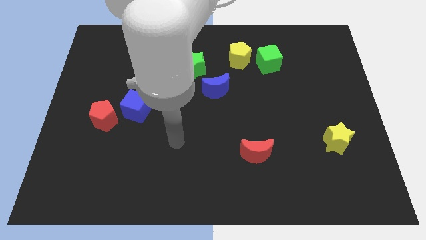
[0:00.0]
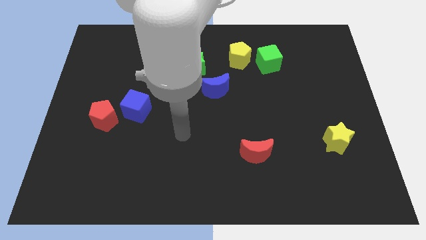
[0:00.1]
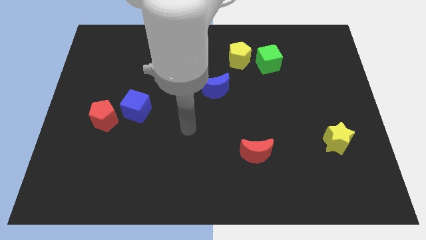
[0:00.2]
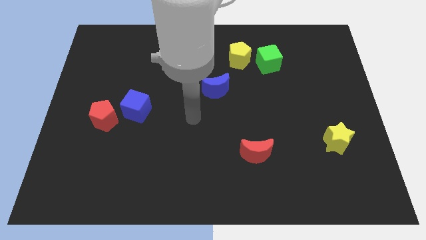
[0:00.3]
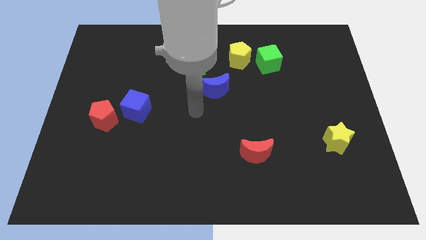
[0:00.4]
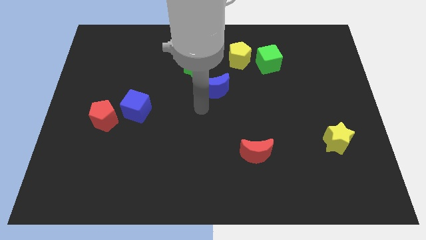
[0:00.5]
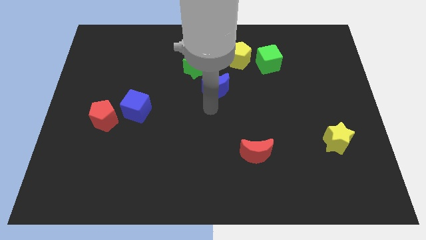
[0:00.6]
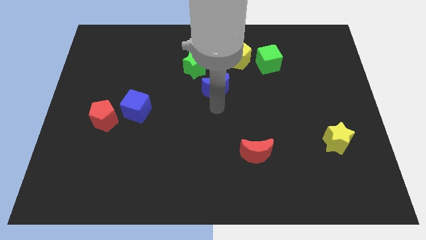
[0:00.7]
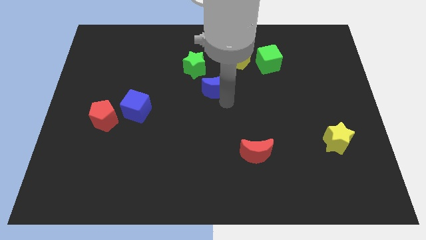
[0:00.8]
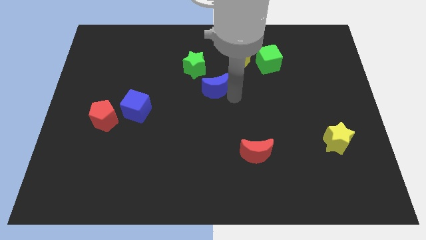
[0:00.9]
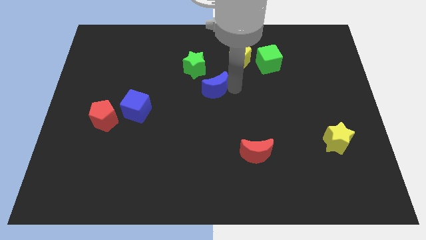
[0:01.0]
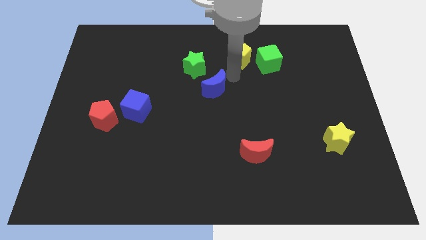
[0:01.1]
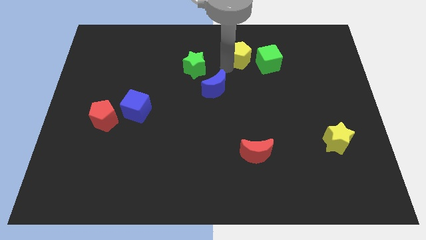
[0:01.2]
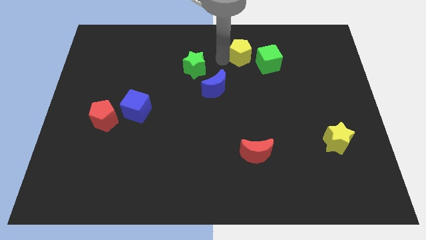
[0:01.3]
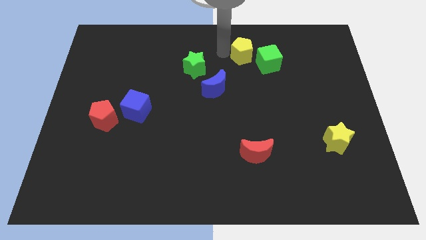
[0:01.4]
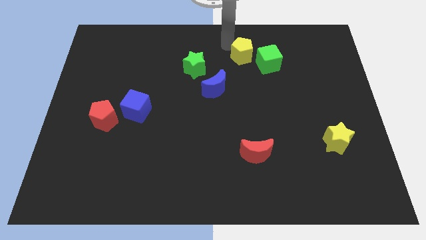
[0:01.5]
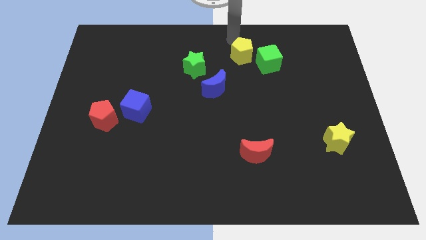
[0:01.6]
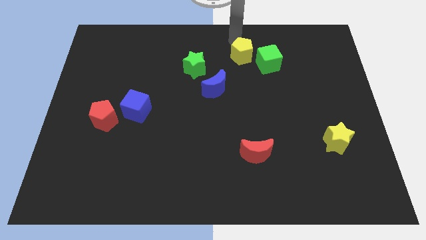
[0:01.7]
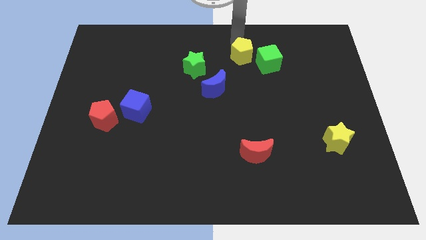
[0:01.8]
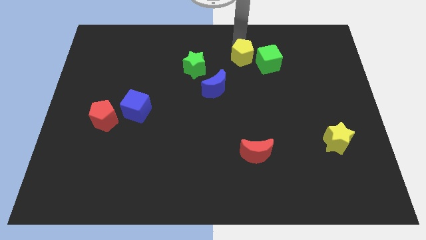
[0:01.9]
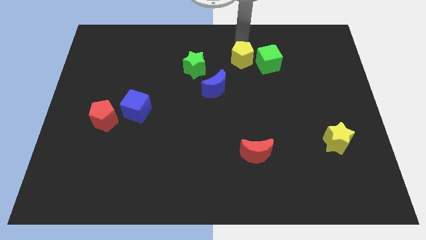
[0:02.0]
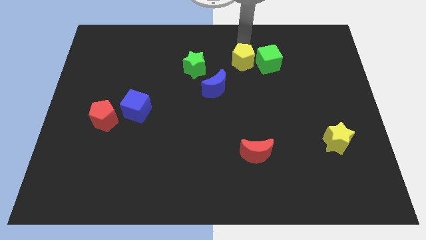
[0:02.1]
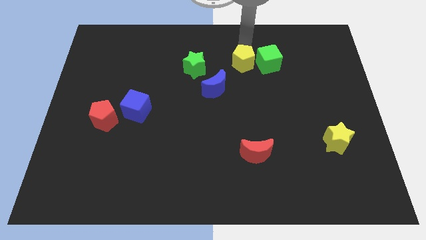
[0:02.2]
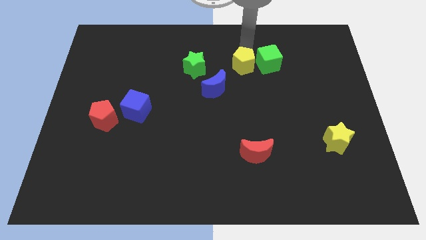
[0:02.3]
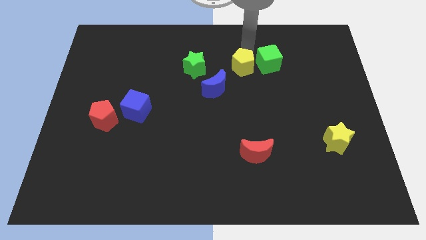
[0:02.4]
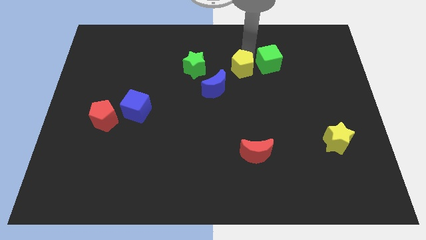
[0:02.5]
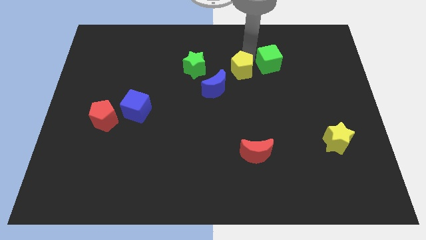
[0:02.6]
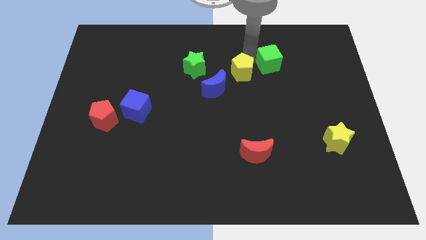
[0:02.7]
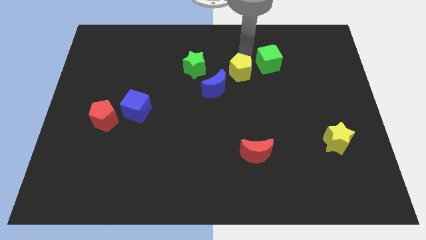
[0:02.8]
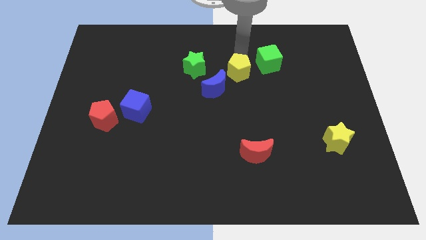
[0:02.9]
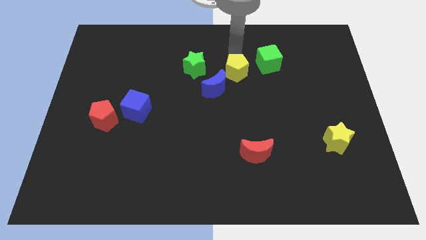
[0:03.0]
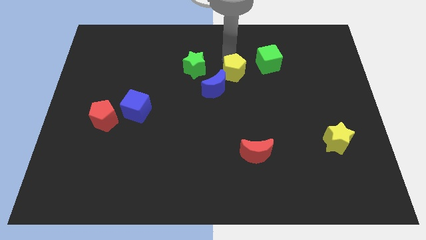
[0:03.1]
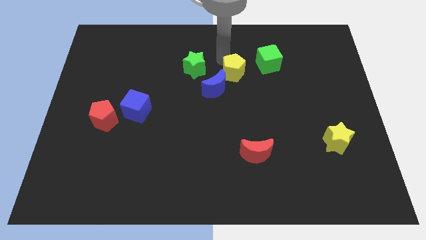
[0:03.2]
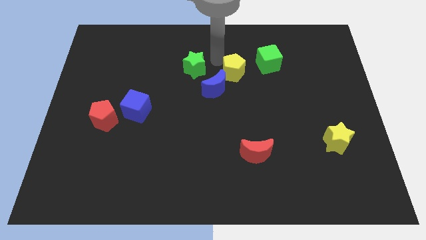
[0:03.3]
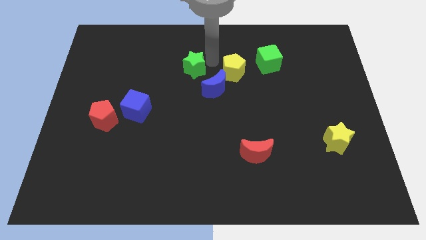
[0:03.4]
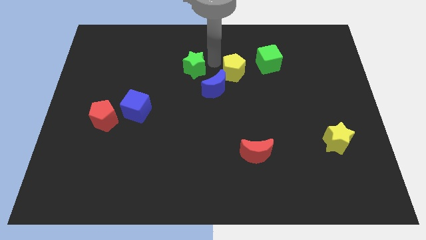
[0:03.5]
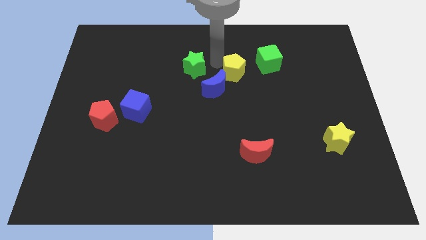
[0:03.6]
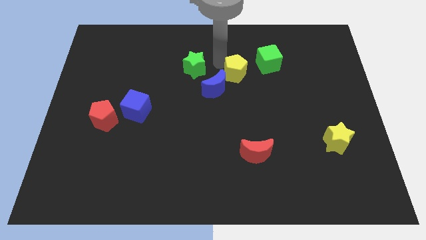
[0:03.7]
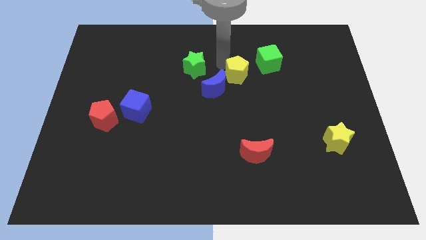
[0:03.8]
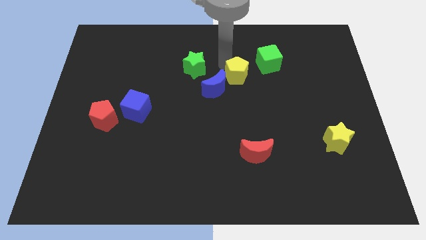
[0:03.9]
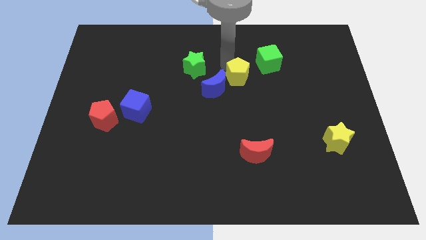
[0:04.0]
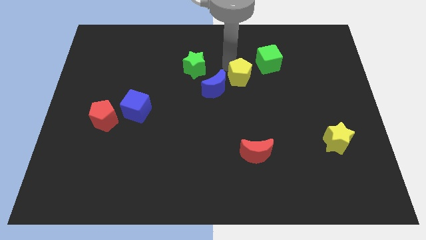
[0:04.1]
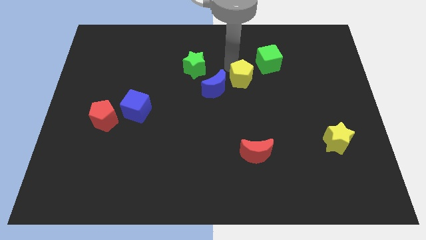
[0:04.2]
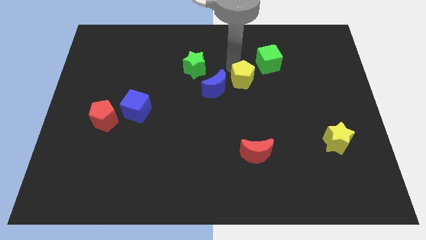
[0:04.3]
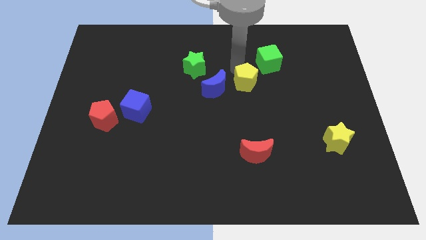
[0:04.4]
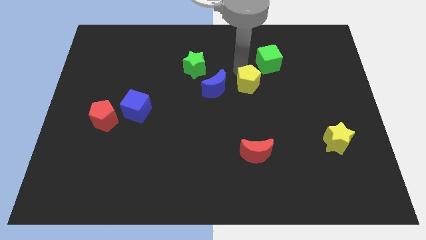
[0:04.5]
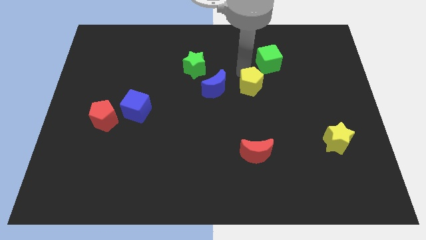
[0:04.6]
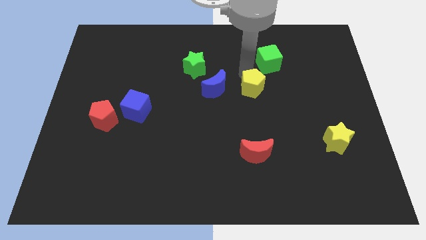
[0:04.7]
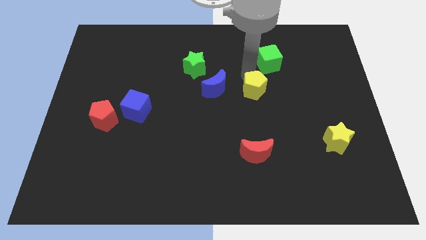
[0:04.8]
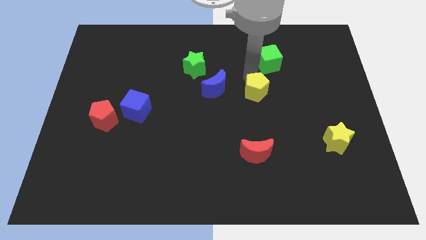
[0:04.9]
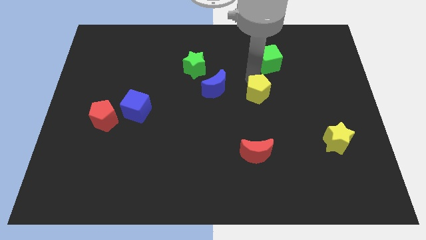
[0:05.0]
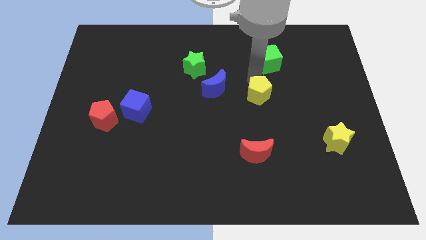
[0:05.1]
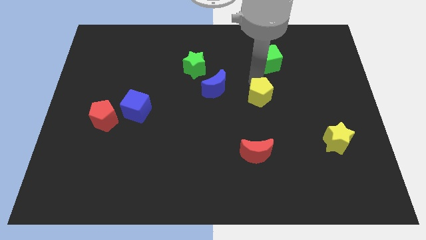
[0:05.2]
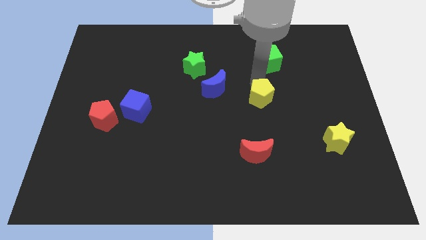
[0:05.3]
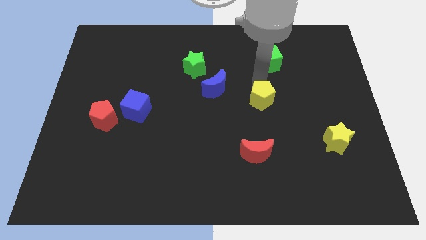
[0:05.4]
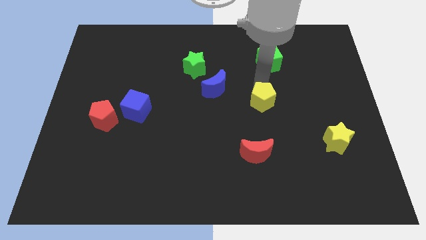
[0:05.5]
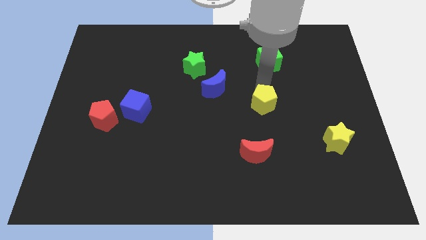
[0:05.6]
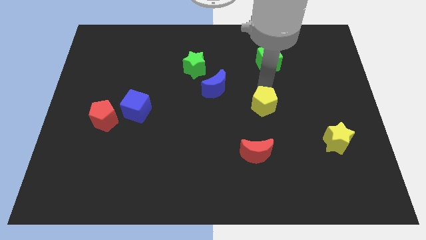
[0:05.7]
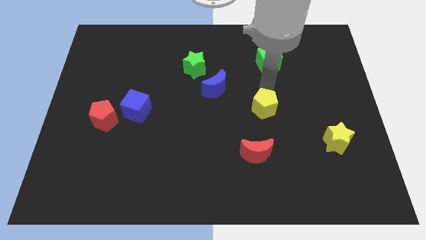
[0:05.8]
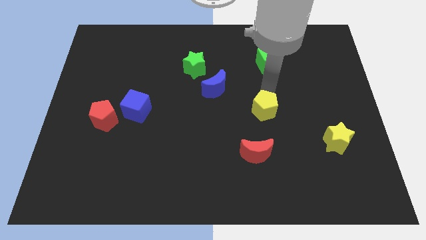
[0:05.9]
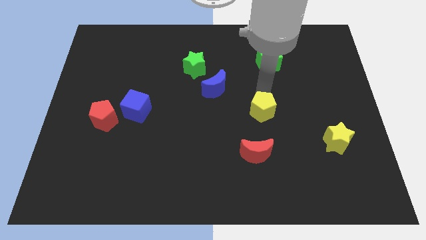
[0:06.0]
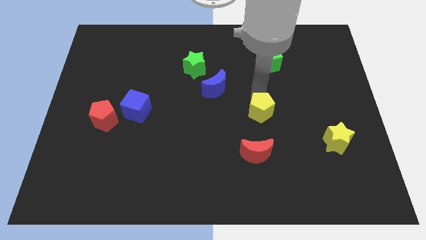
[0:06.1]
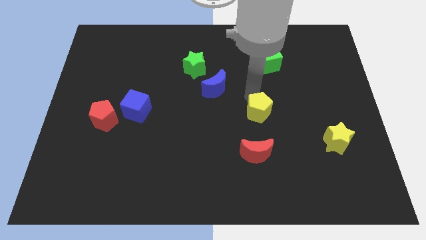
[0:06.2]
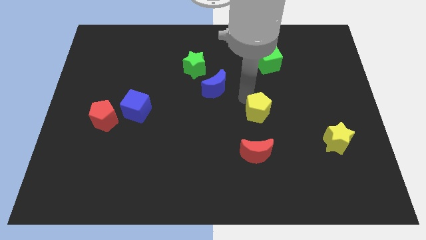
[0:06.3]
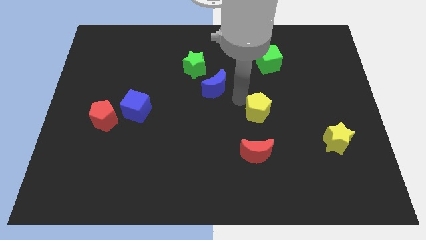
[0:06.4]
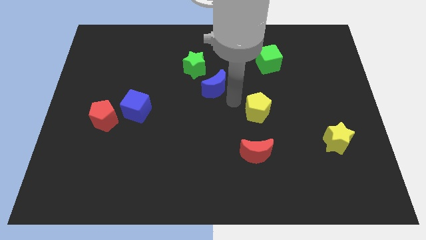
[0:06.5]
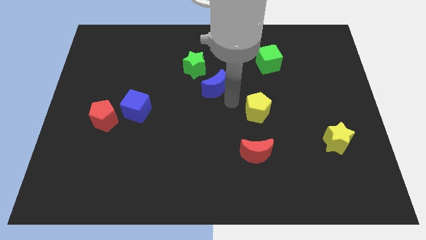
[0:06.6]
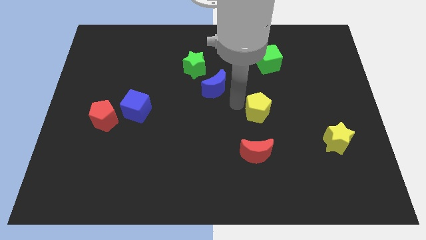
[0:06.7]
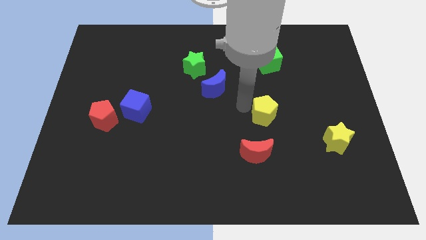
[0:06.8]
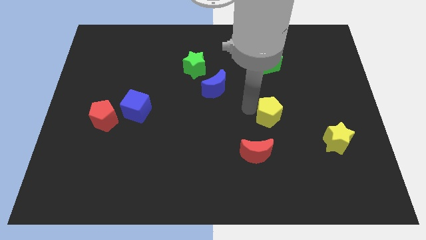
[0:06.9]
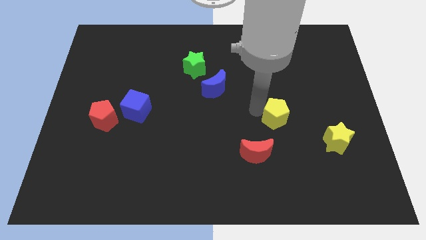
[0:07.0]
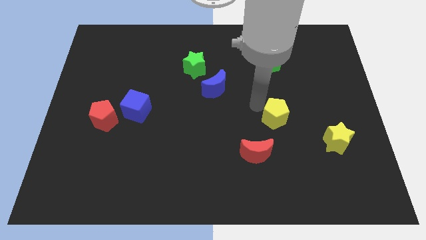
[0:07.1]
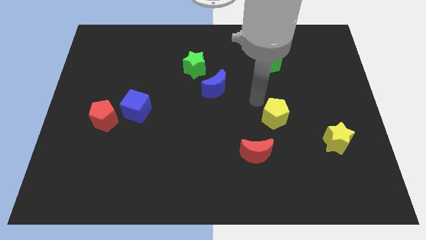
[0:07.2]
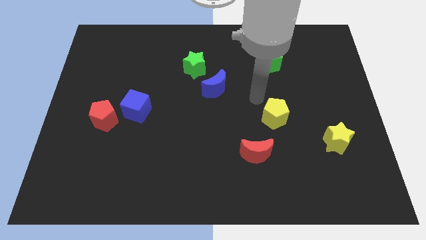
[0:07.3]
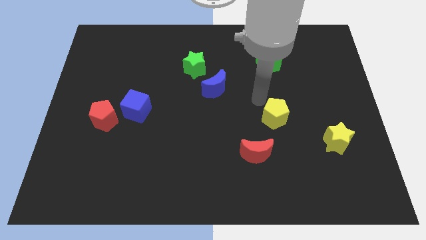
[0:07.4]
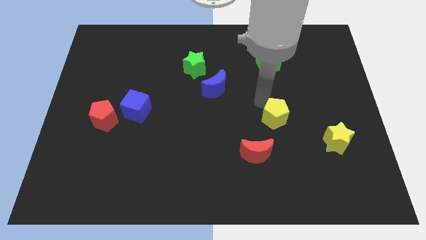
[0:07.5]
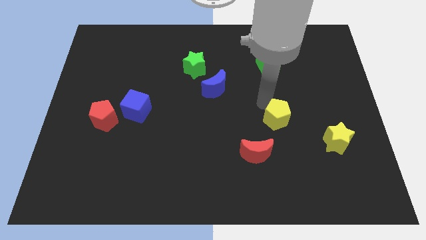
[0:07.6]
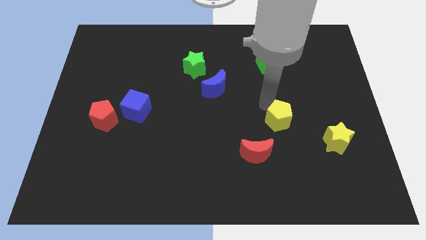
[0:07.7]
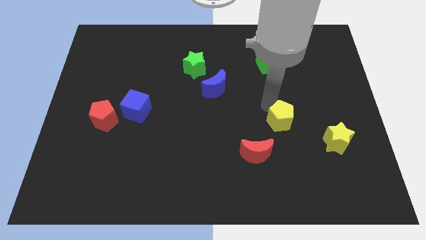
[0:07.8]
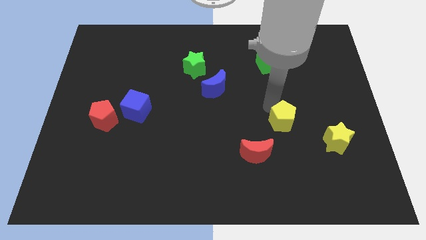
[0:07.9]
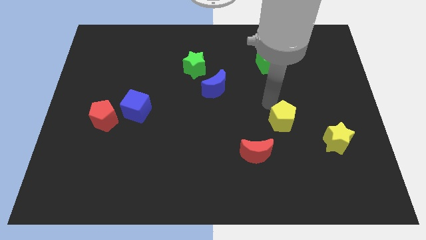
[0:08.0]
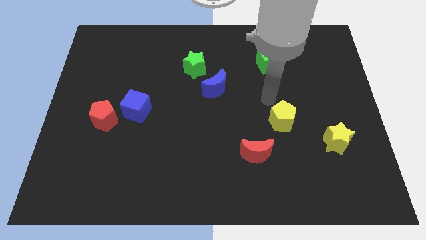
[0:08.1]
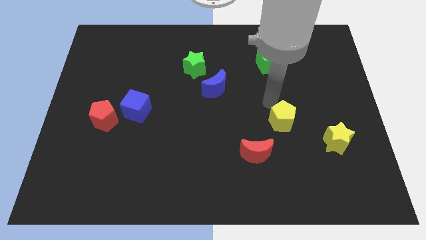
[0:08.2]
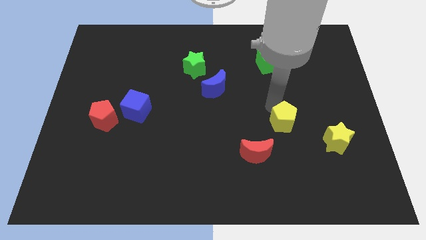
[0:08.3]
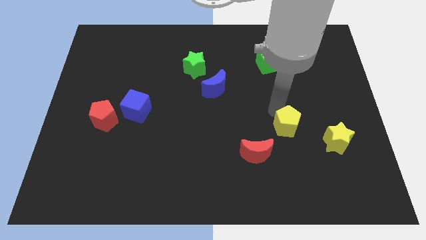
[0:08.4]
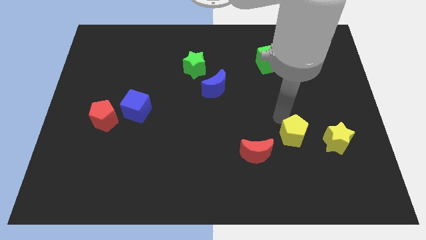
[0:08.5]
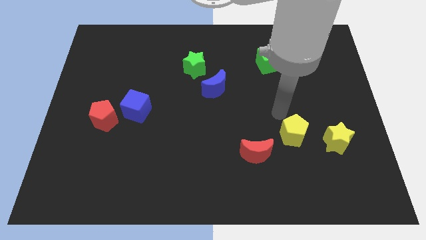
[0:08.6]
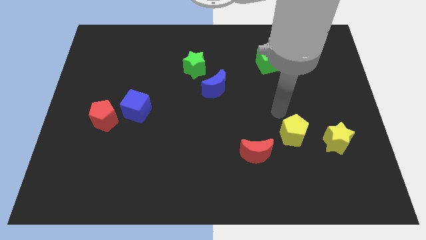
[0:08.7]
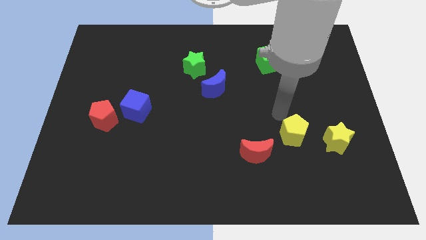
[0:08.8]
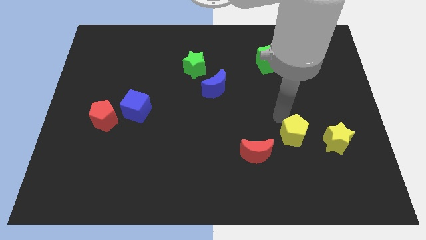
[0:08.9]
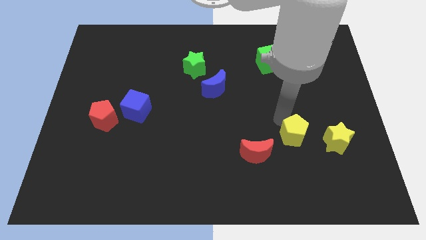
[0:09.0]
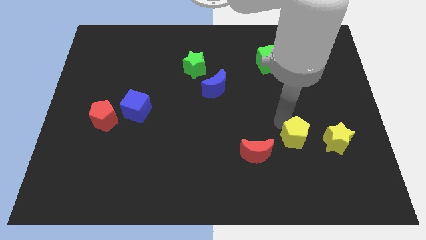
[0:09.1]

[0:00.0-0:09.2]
move the yellow pentagon to the right side of the red moon
